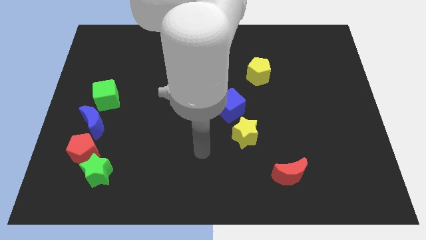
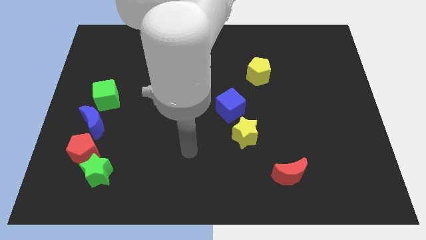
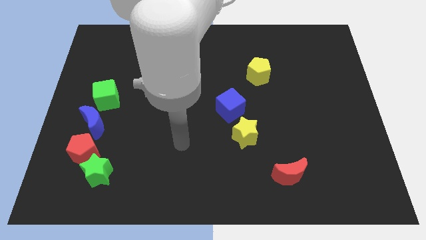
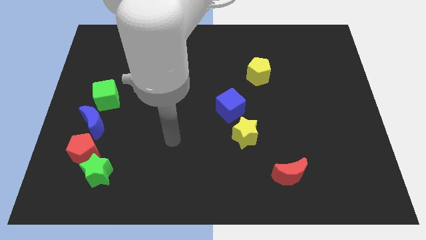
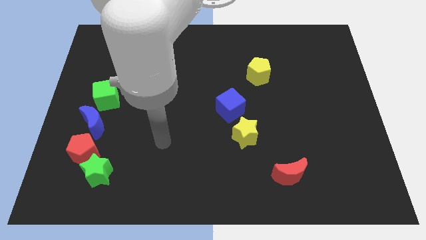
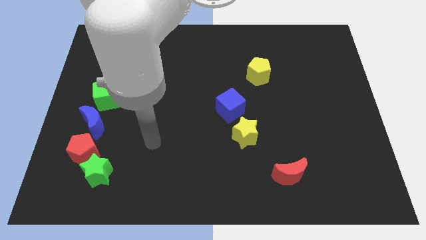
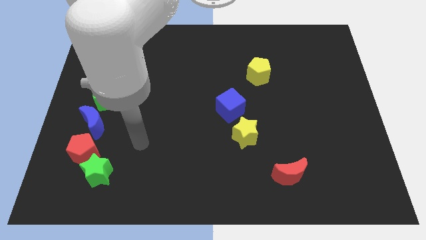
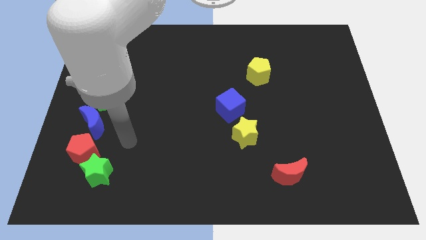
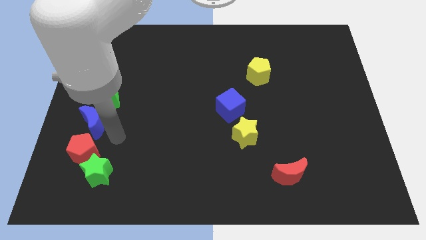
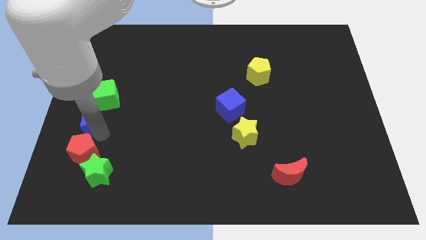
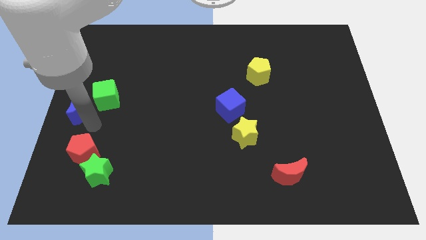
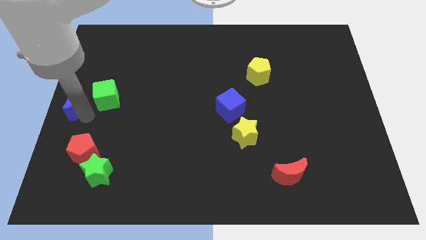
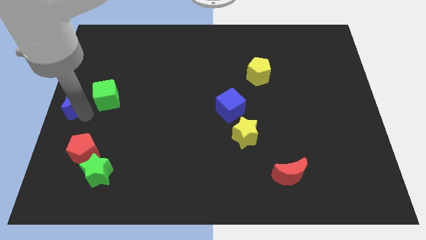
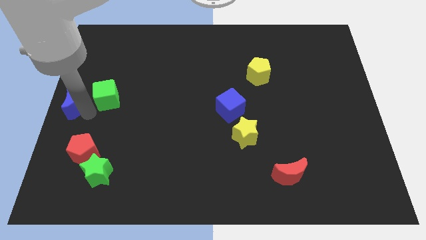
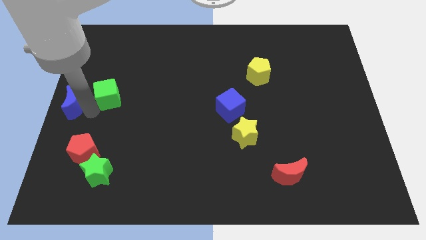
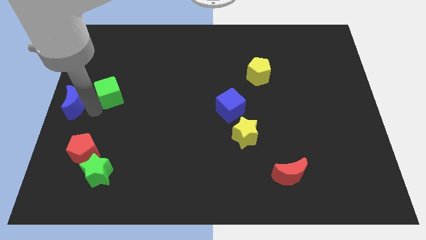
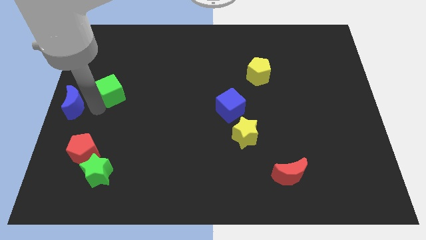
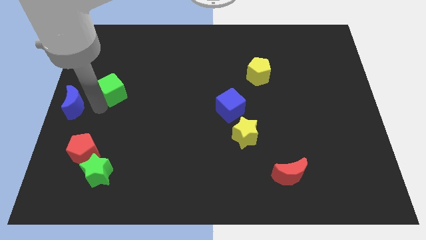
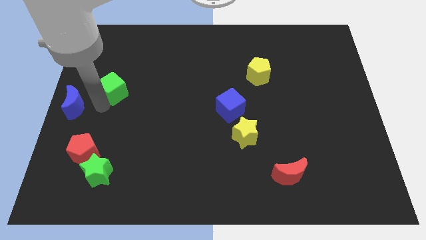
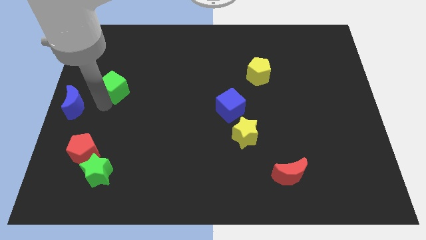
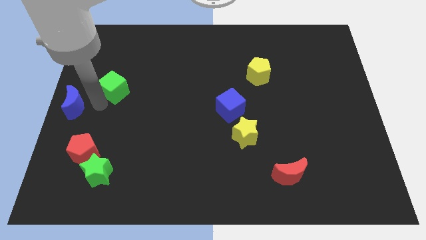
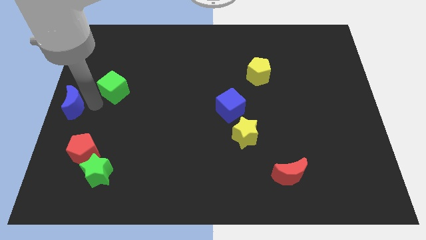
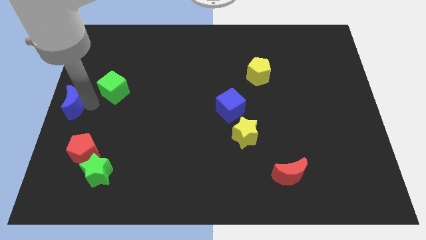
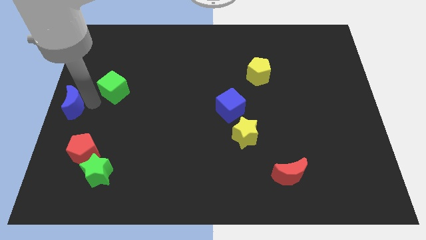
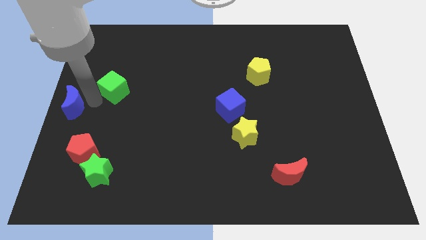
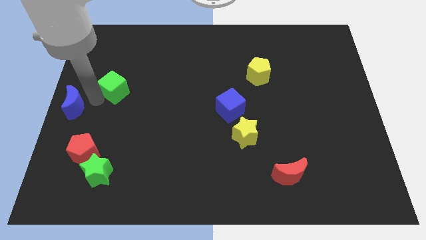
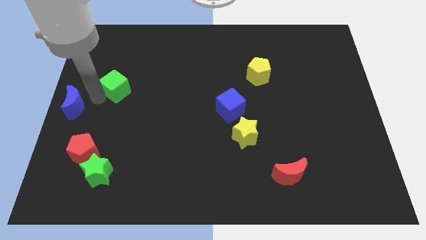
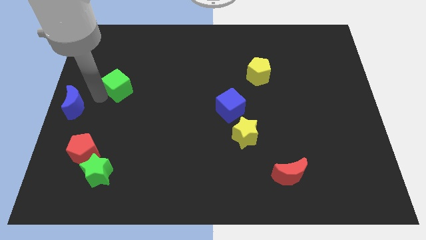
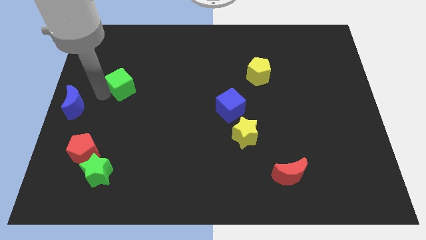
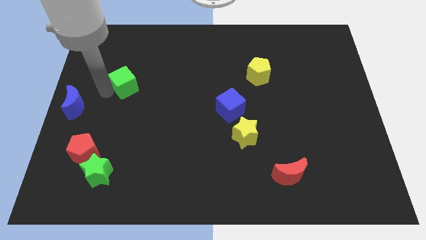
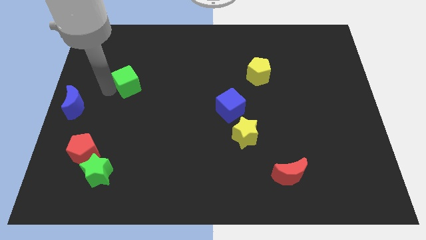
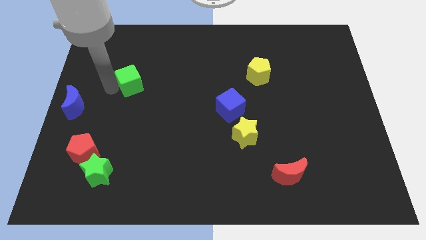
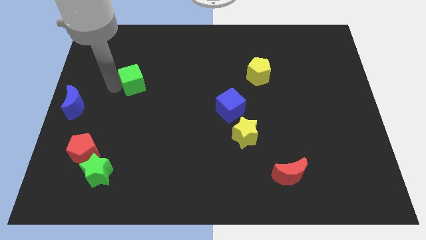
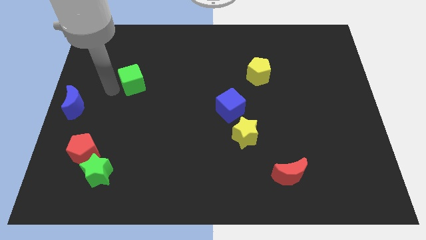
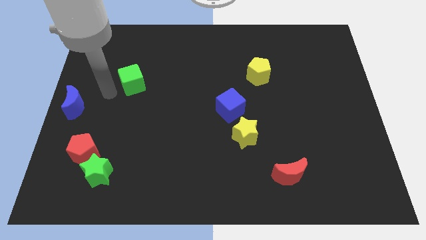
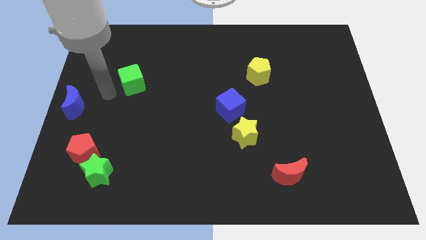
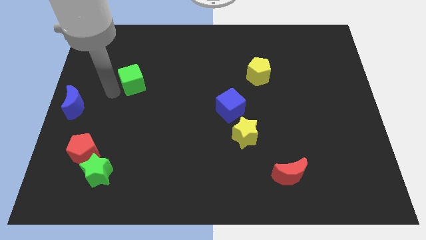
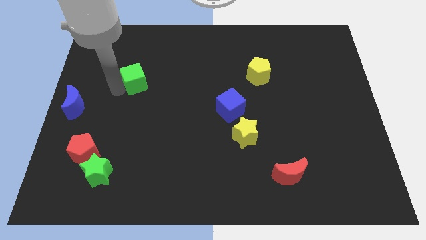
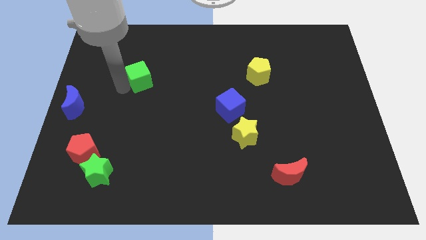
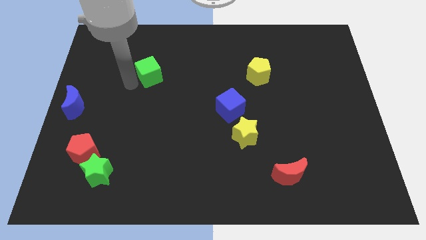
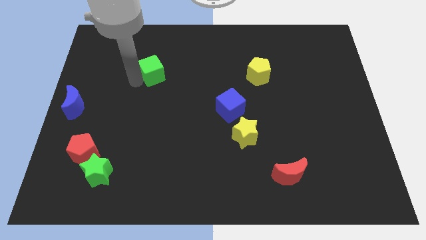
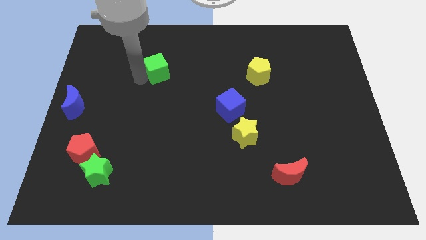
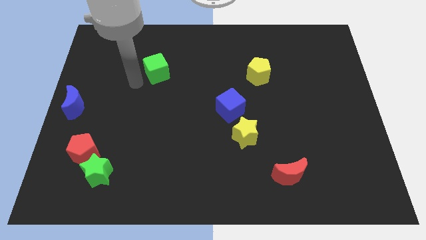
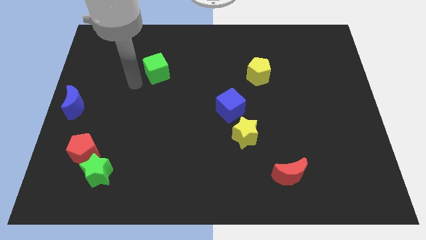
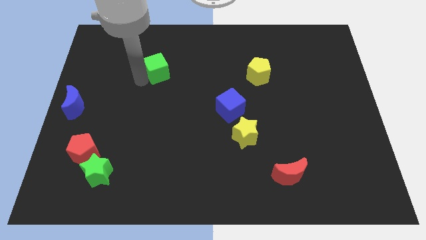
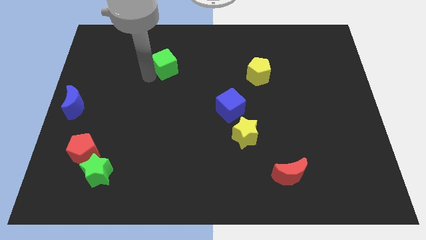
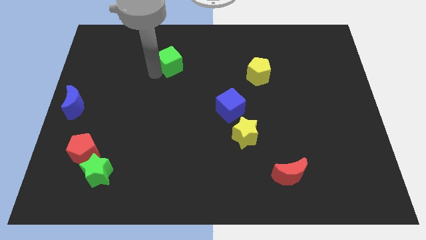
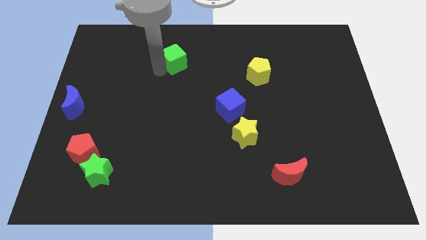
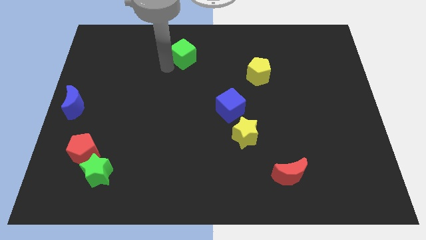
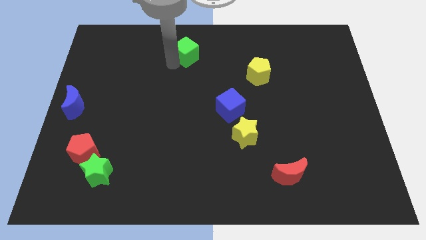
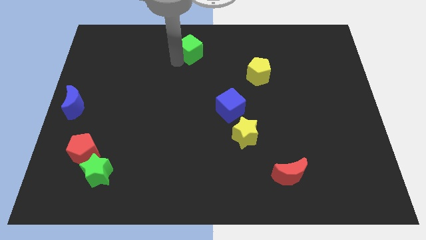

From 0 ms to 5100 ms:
push the green cube to the towards your base

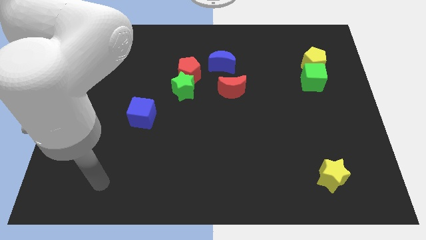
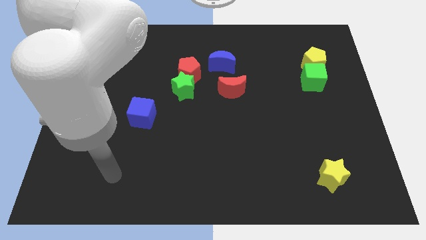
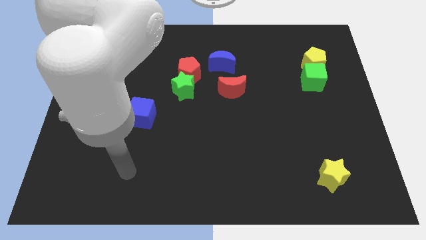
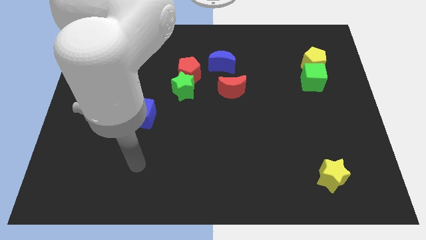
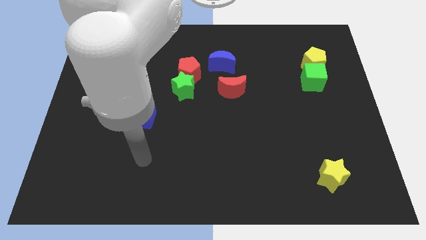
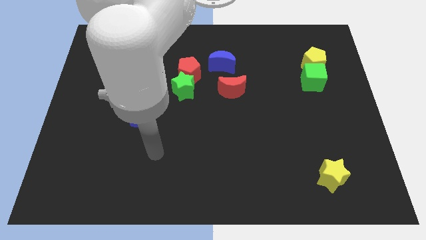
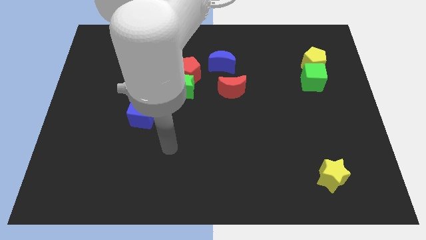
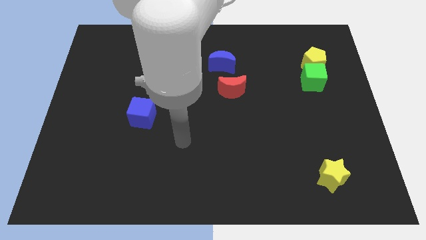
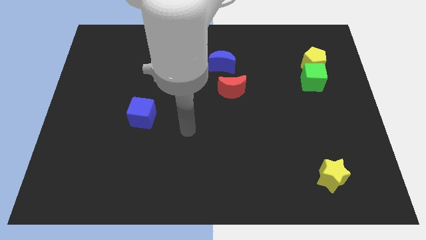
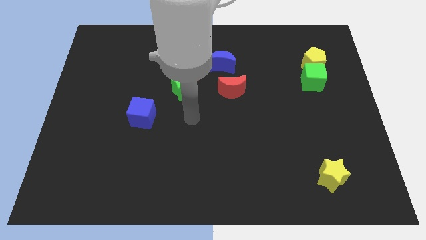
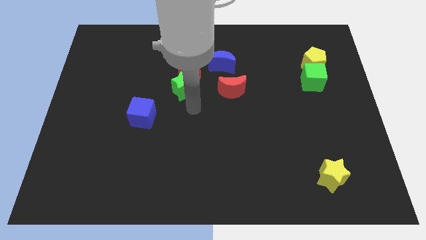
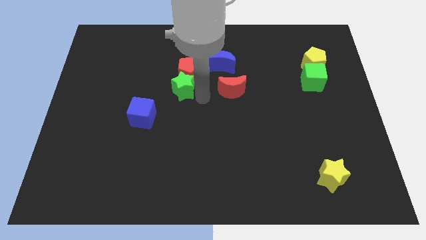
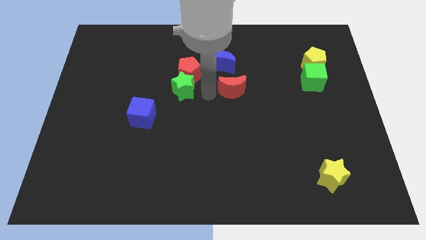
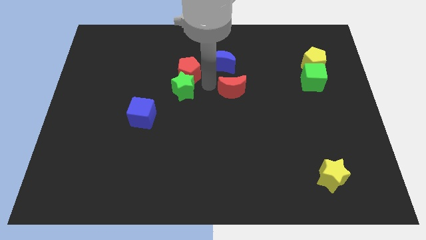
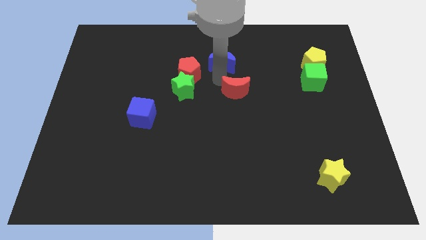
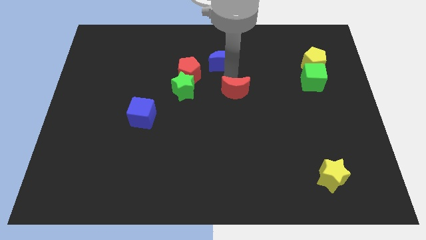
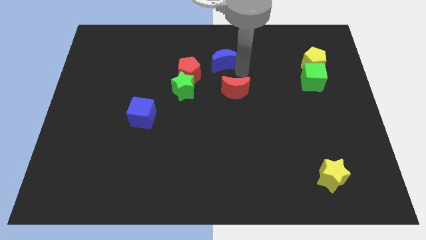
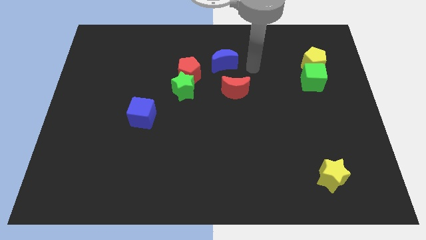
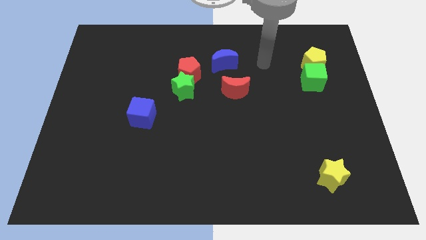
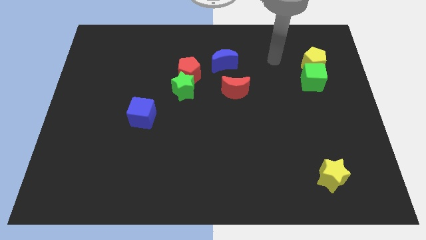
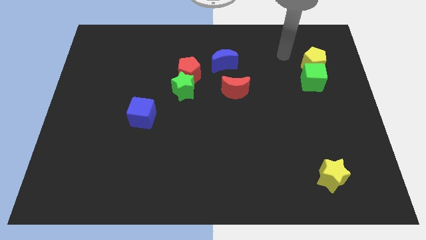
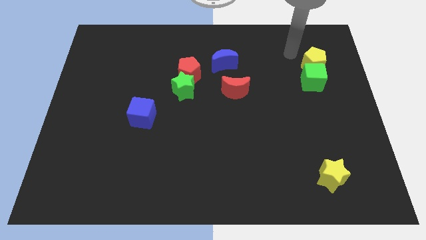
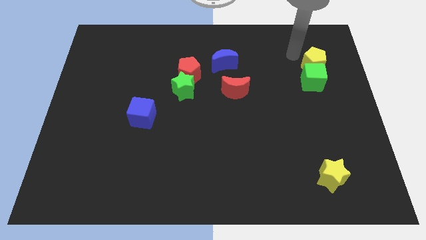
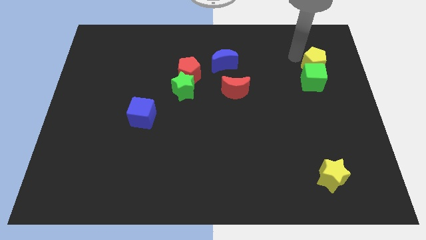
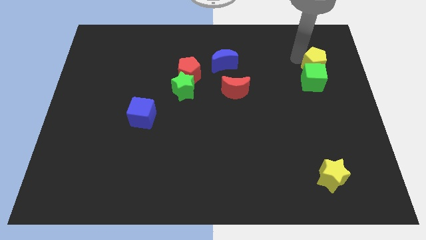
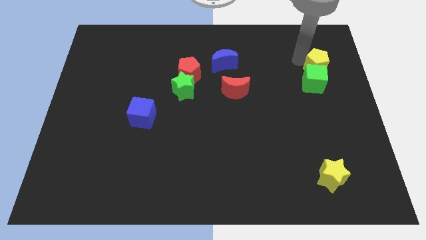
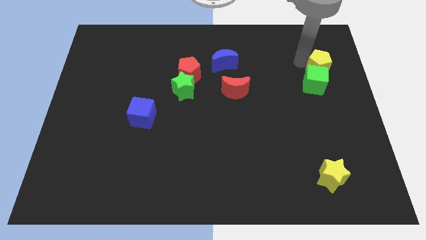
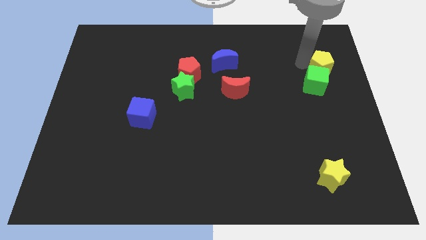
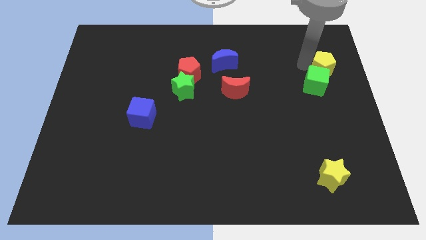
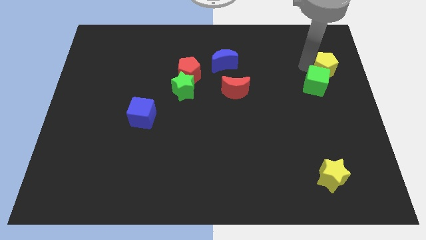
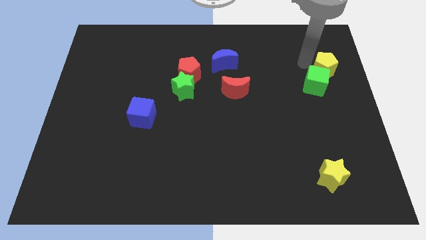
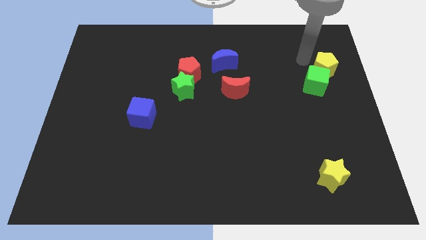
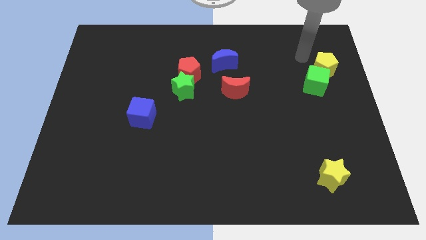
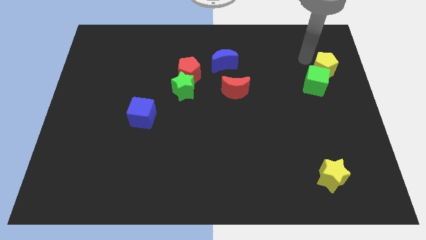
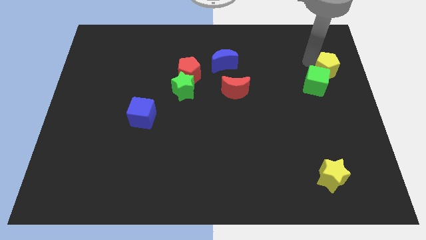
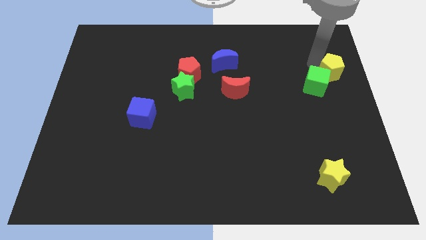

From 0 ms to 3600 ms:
move the yellow pentagon to the center right
